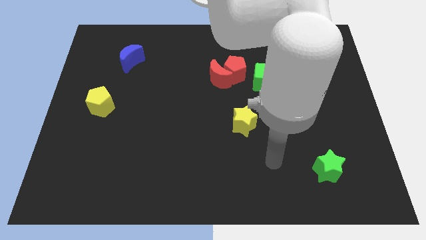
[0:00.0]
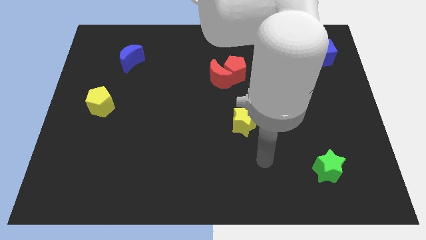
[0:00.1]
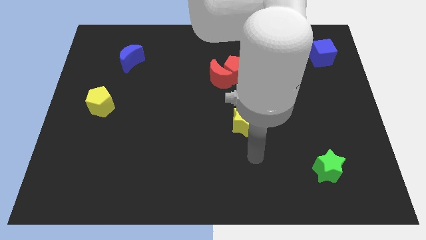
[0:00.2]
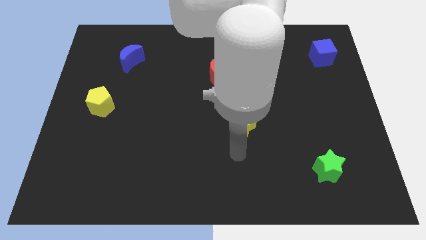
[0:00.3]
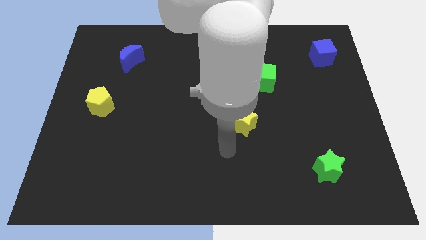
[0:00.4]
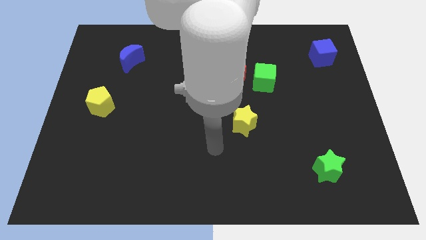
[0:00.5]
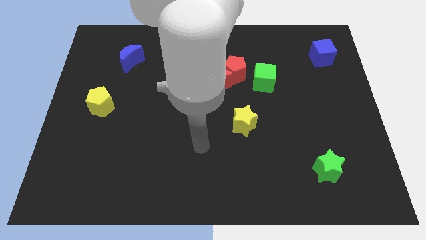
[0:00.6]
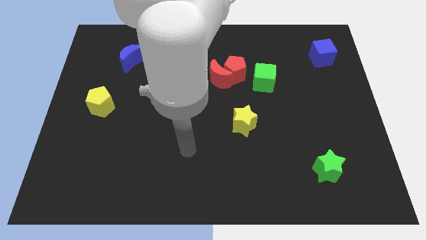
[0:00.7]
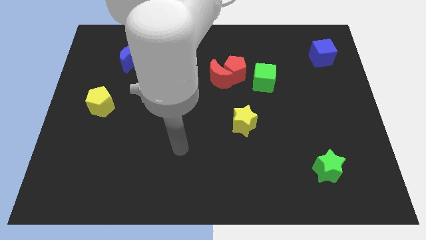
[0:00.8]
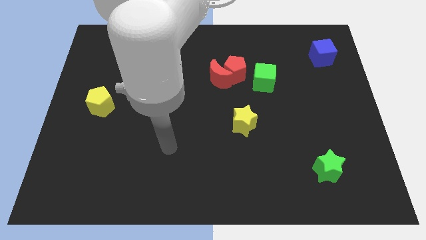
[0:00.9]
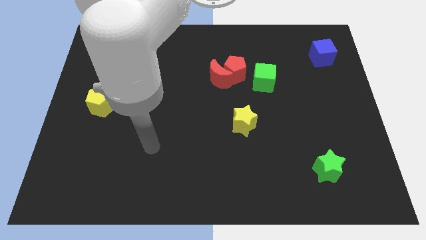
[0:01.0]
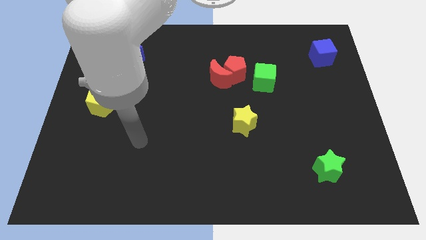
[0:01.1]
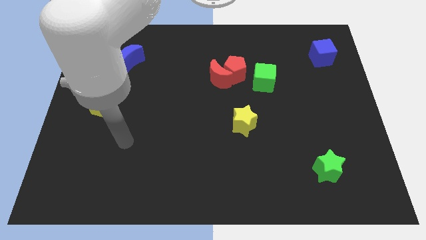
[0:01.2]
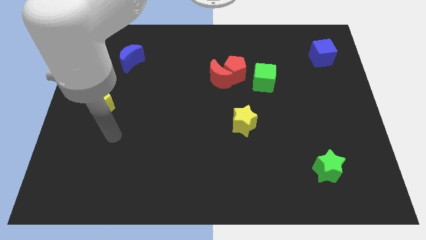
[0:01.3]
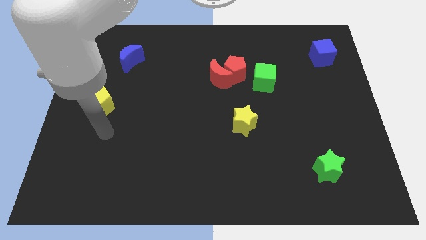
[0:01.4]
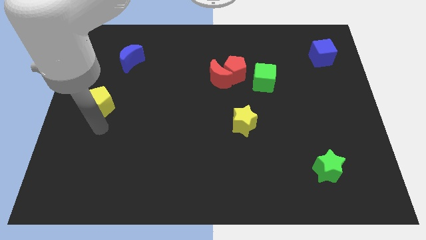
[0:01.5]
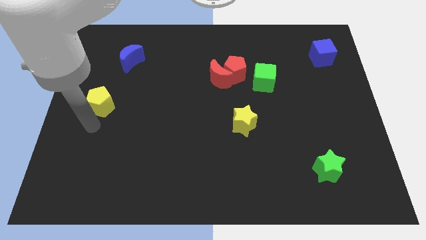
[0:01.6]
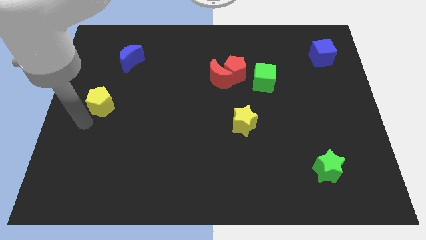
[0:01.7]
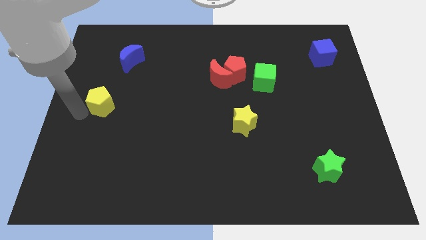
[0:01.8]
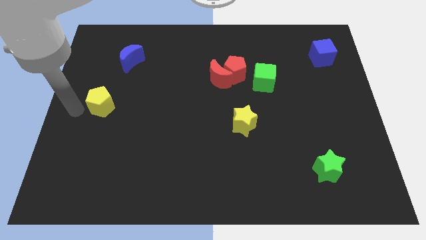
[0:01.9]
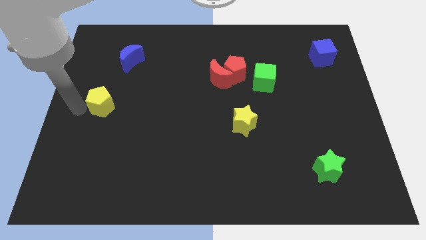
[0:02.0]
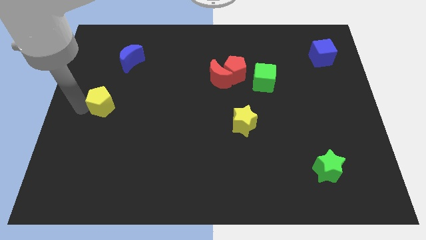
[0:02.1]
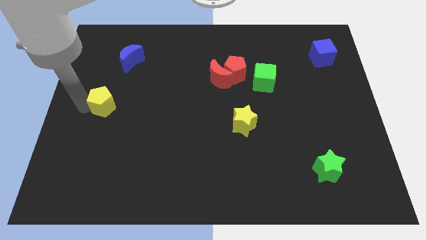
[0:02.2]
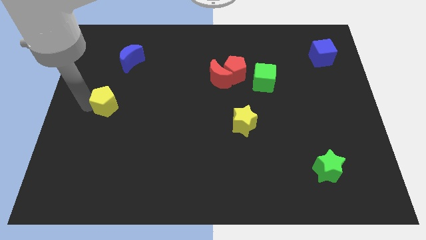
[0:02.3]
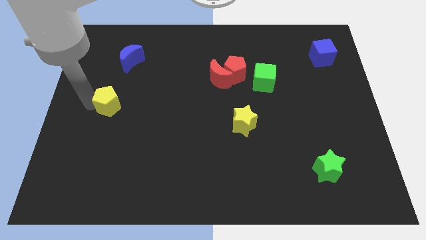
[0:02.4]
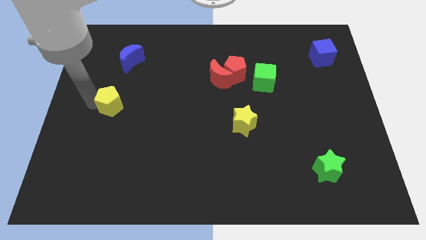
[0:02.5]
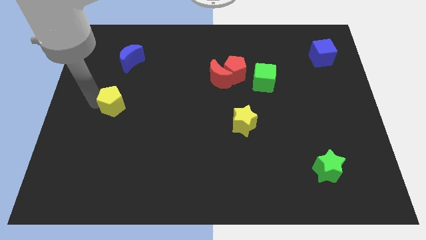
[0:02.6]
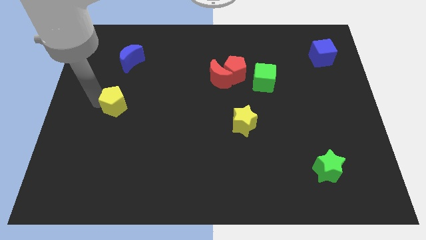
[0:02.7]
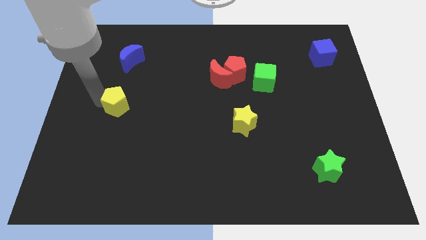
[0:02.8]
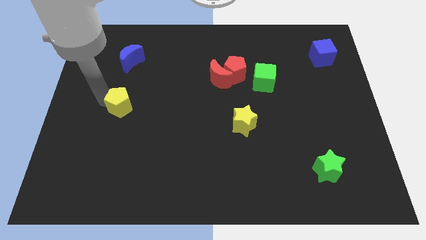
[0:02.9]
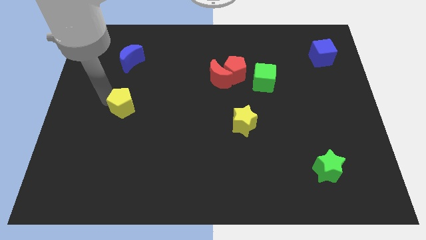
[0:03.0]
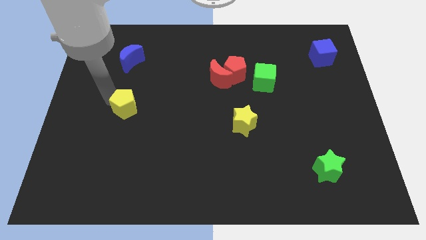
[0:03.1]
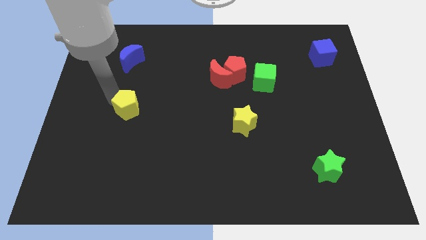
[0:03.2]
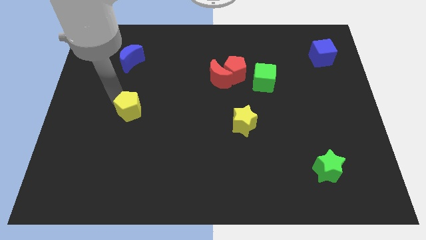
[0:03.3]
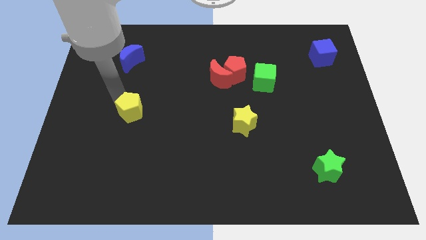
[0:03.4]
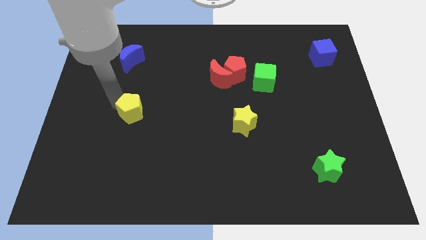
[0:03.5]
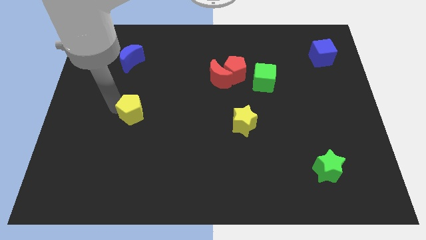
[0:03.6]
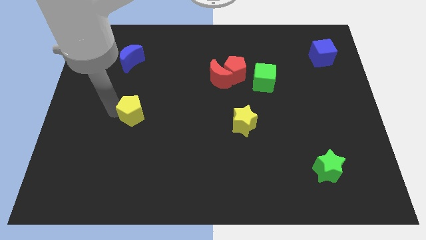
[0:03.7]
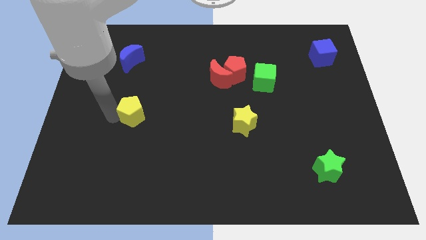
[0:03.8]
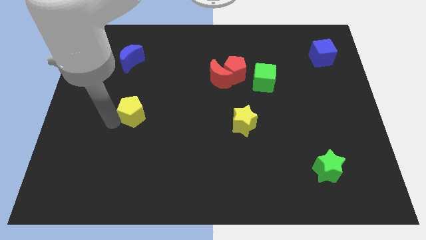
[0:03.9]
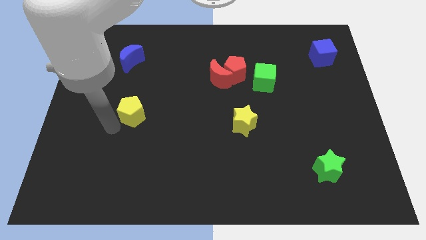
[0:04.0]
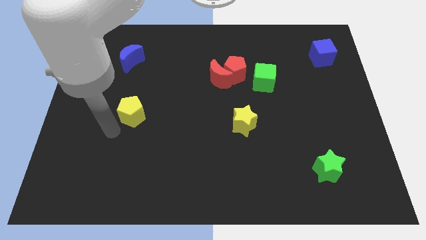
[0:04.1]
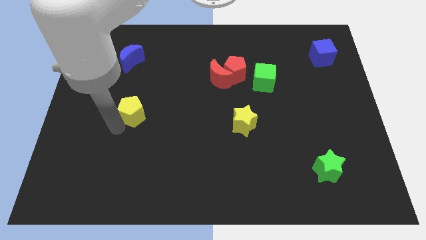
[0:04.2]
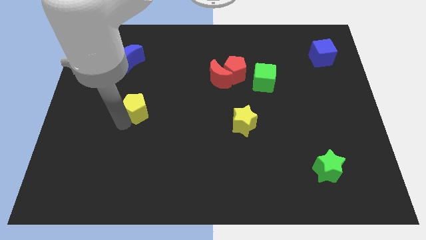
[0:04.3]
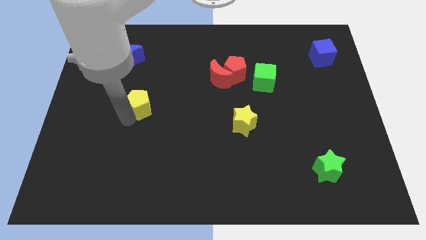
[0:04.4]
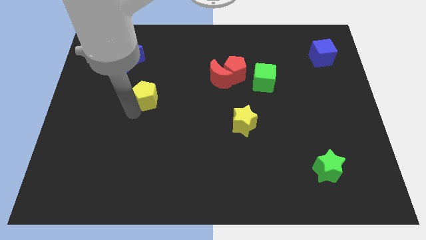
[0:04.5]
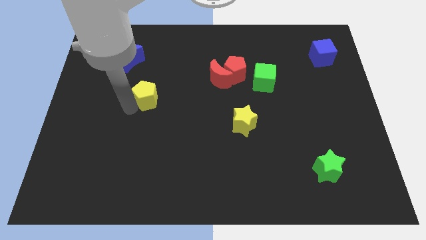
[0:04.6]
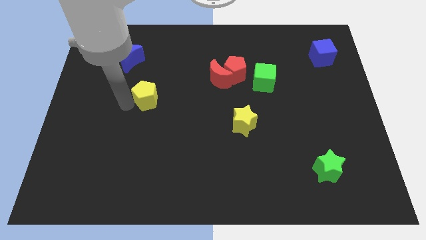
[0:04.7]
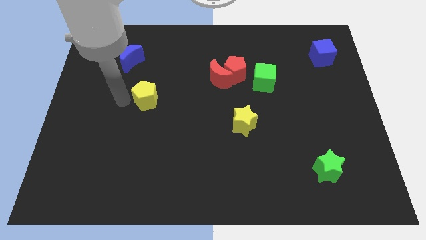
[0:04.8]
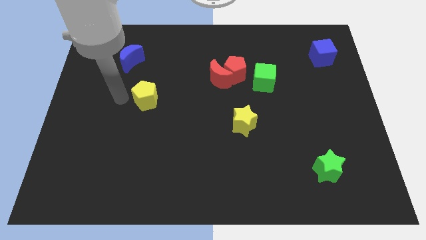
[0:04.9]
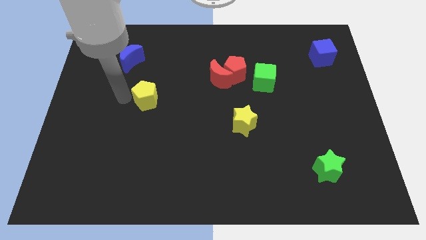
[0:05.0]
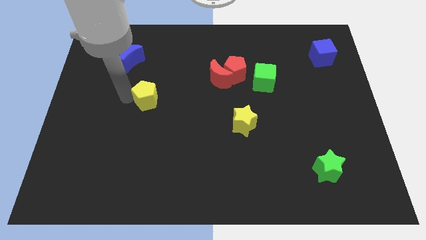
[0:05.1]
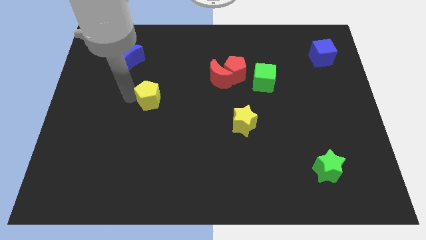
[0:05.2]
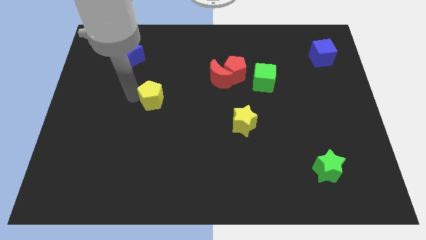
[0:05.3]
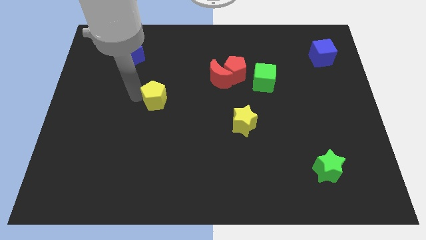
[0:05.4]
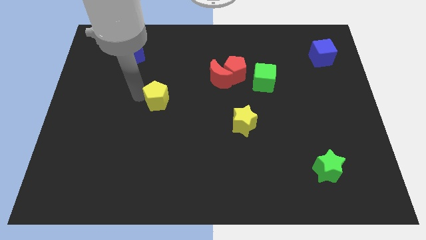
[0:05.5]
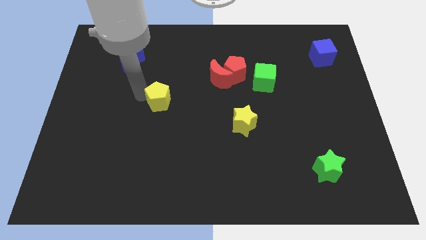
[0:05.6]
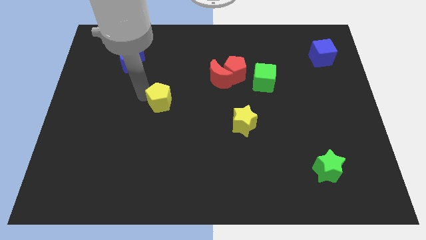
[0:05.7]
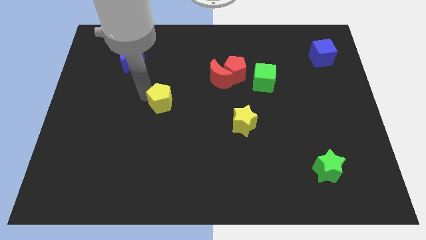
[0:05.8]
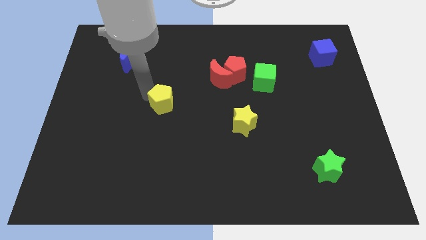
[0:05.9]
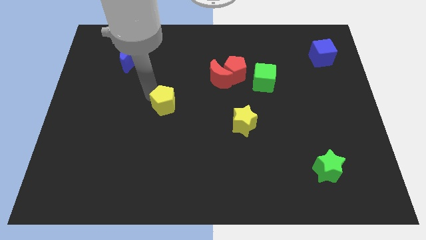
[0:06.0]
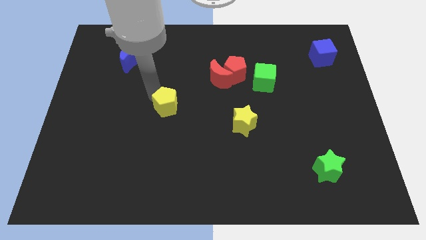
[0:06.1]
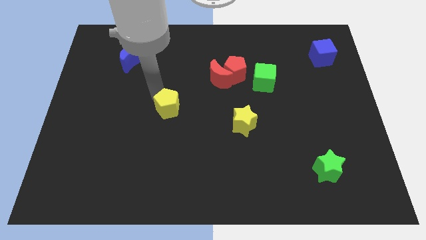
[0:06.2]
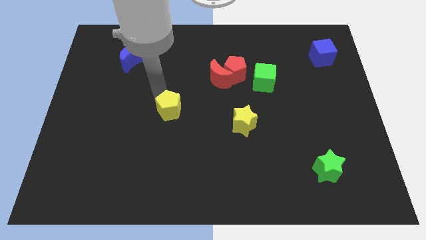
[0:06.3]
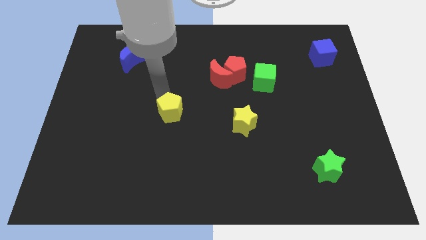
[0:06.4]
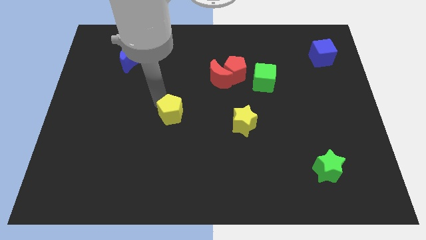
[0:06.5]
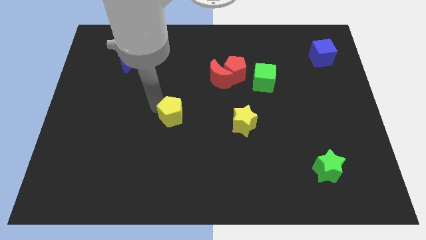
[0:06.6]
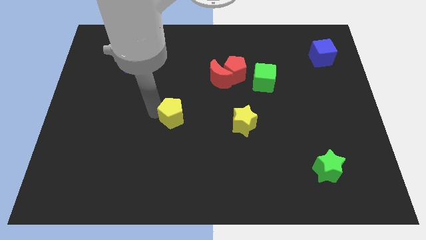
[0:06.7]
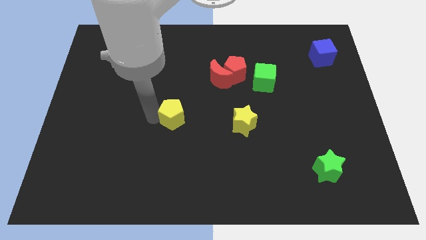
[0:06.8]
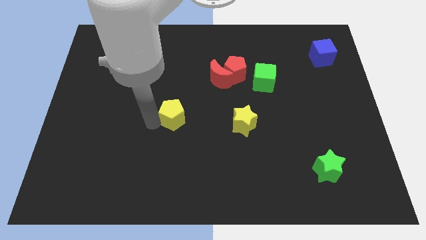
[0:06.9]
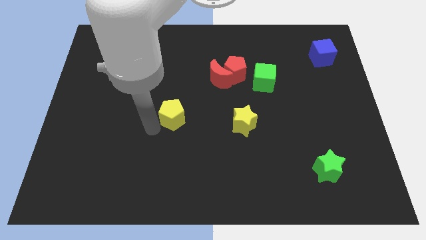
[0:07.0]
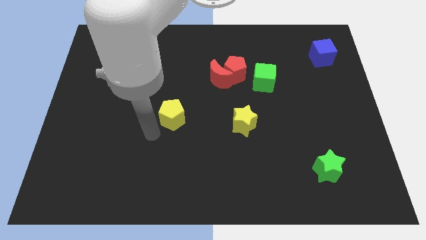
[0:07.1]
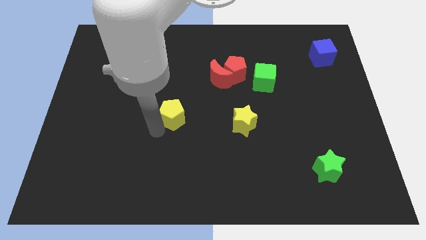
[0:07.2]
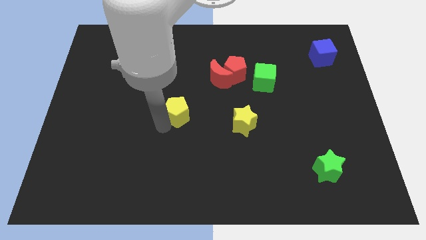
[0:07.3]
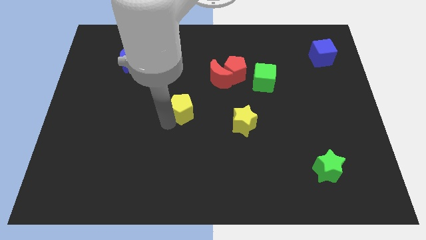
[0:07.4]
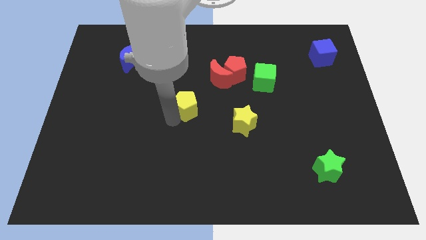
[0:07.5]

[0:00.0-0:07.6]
push the yellow pentagon to the right

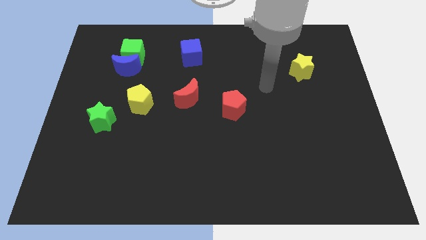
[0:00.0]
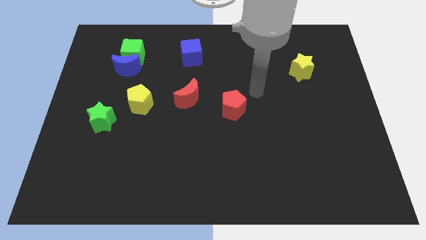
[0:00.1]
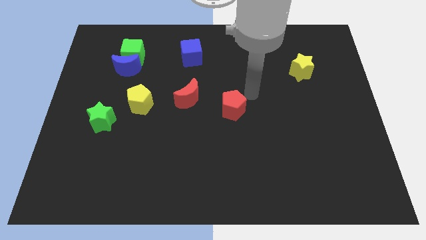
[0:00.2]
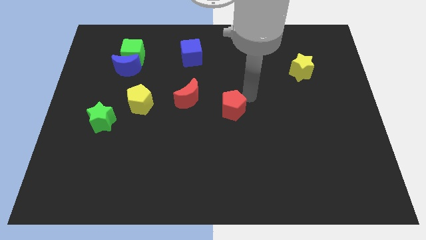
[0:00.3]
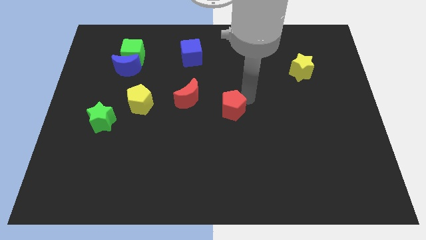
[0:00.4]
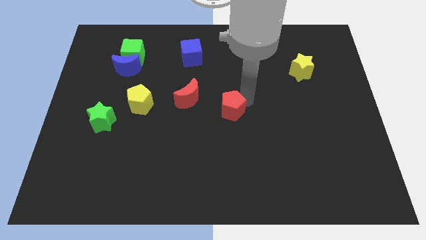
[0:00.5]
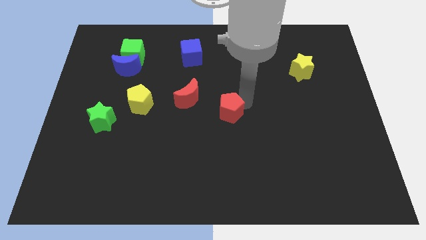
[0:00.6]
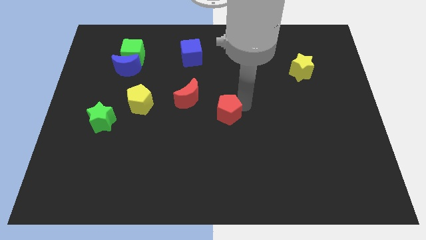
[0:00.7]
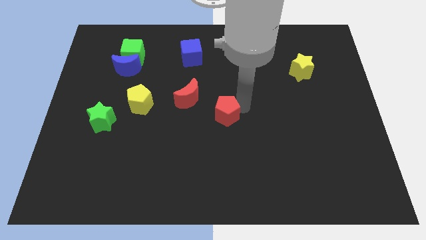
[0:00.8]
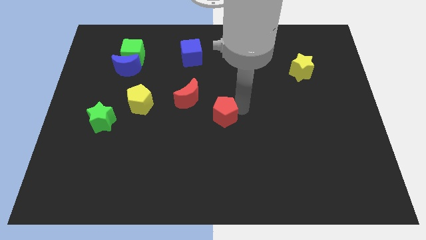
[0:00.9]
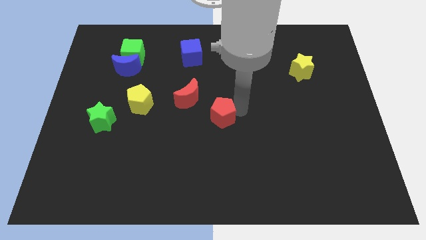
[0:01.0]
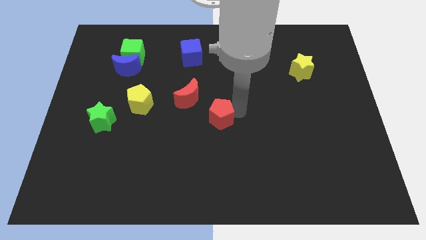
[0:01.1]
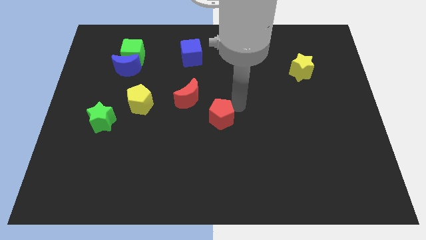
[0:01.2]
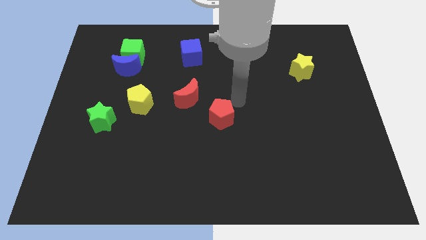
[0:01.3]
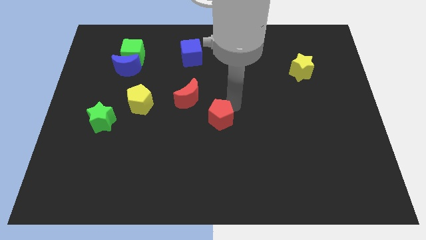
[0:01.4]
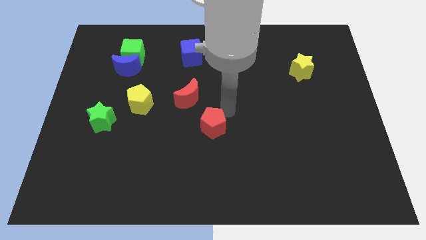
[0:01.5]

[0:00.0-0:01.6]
slide the red pentagon diagonally down and left a little
